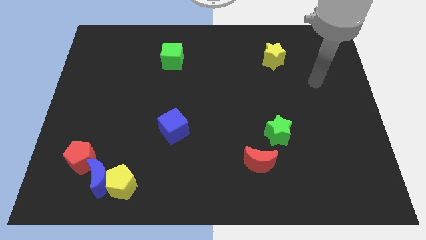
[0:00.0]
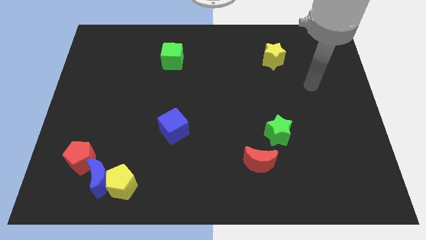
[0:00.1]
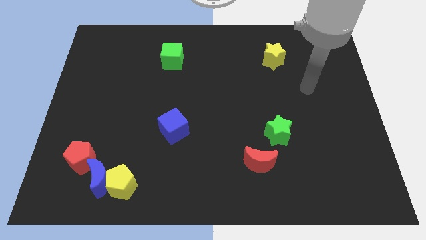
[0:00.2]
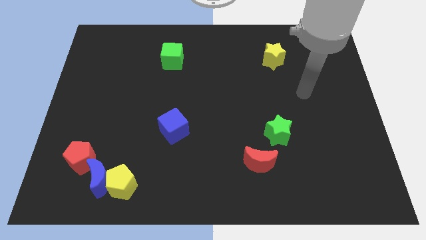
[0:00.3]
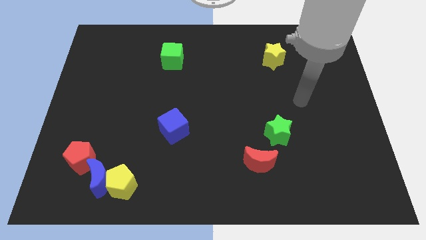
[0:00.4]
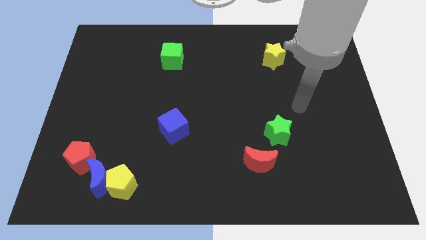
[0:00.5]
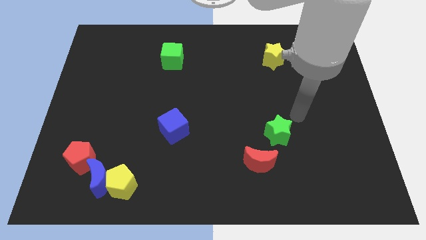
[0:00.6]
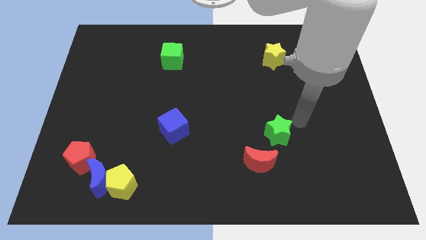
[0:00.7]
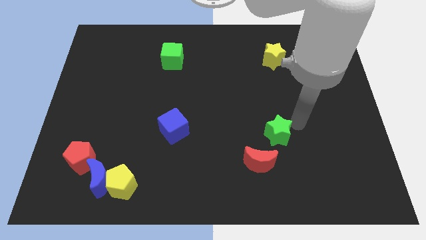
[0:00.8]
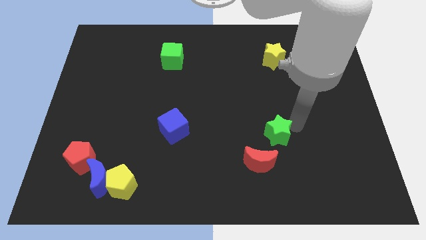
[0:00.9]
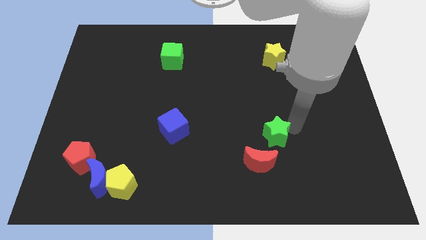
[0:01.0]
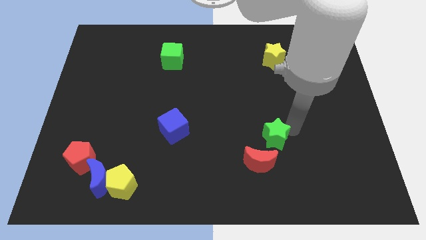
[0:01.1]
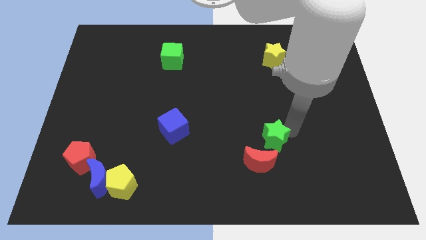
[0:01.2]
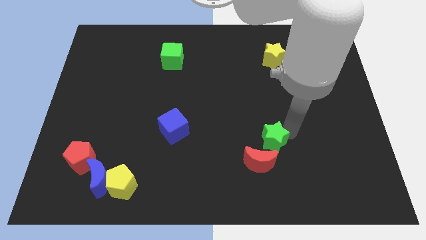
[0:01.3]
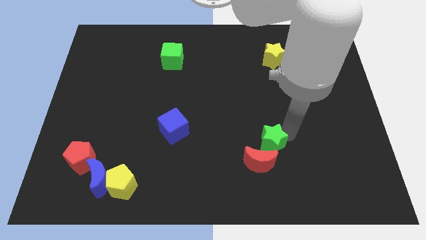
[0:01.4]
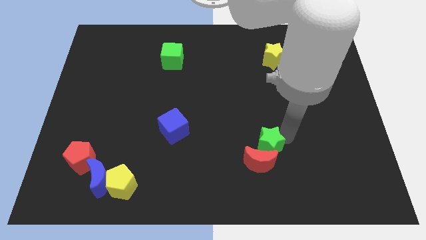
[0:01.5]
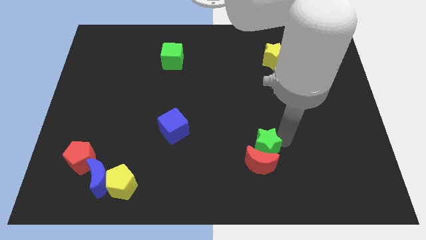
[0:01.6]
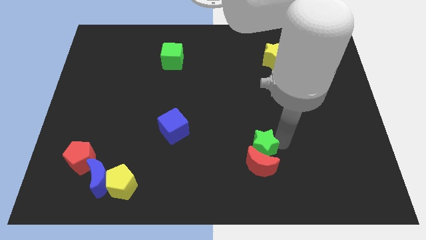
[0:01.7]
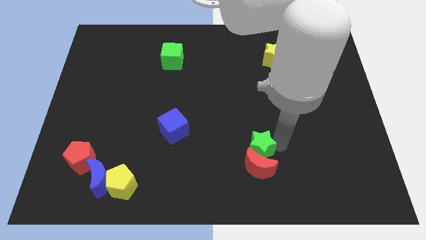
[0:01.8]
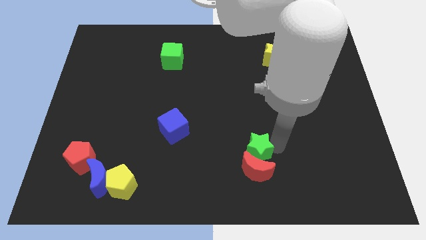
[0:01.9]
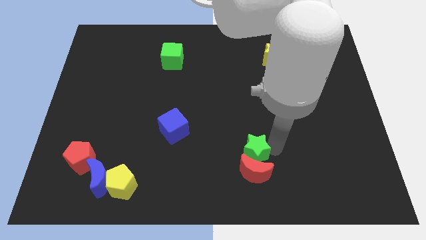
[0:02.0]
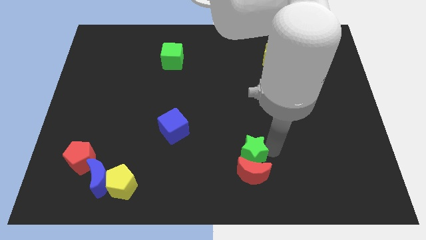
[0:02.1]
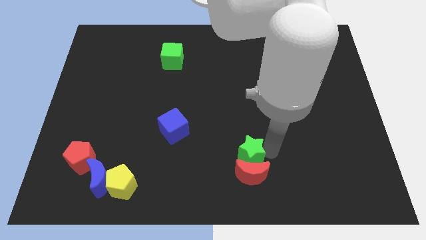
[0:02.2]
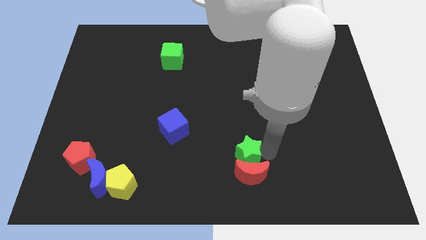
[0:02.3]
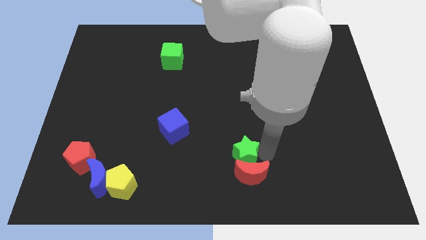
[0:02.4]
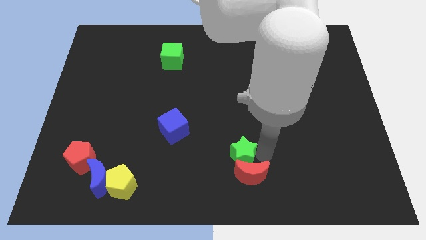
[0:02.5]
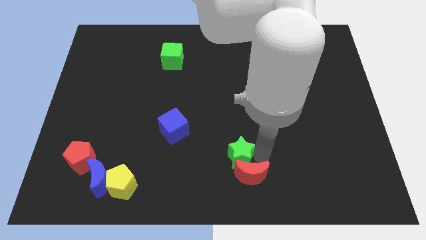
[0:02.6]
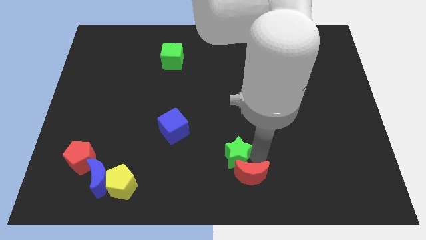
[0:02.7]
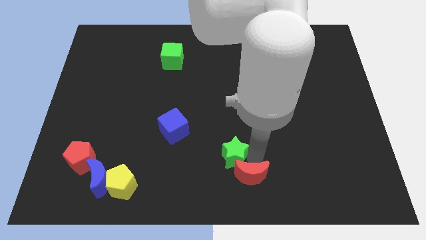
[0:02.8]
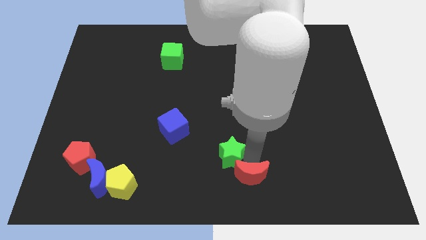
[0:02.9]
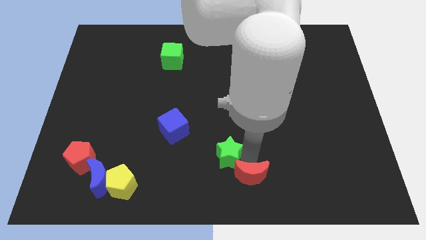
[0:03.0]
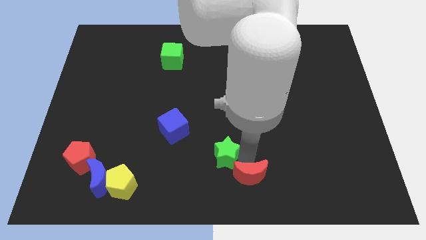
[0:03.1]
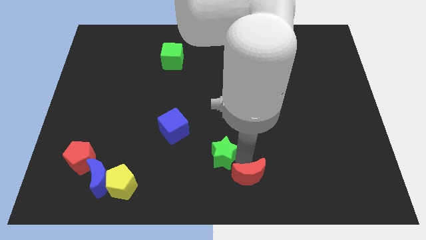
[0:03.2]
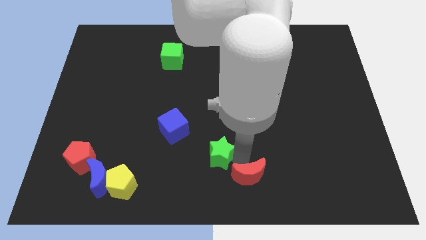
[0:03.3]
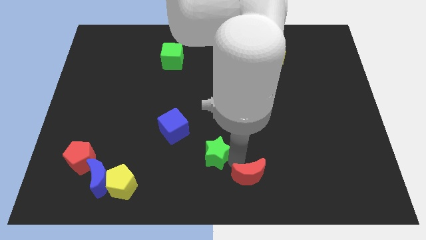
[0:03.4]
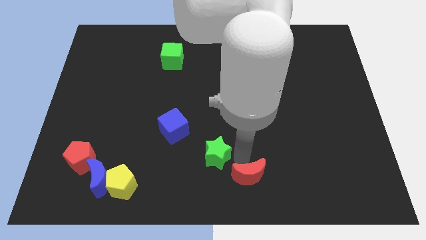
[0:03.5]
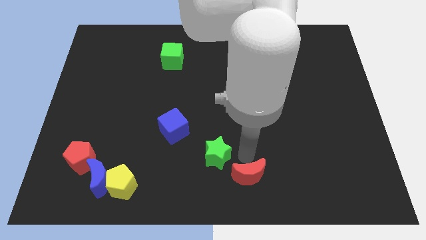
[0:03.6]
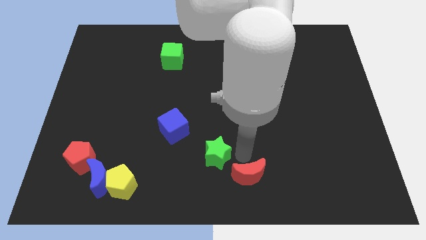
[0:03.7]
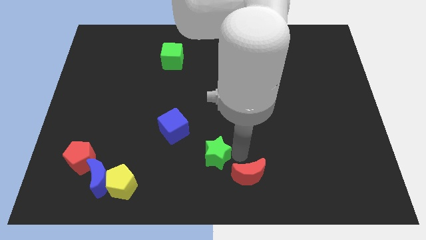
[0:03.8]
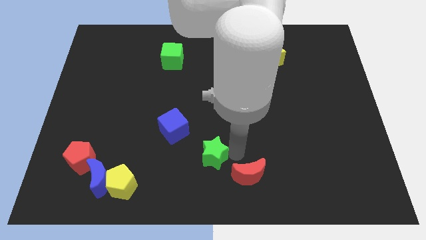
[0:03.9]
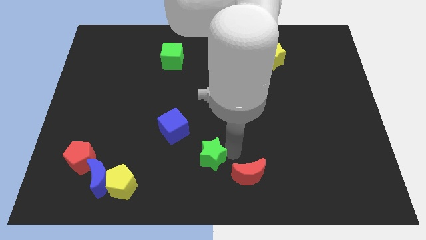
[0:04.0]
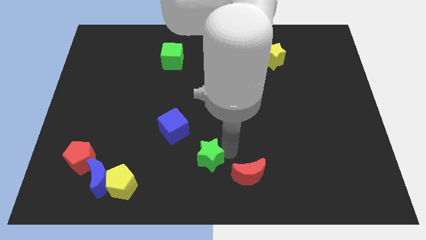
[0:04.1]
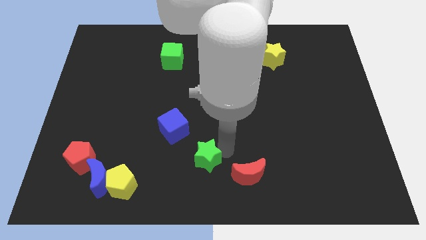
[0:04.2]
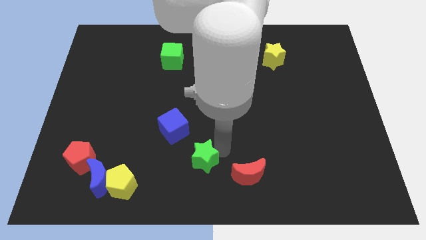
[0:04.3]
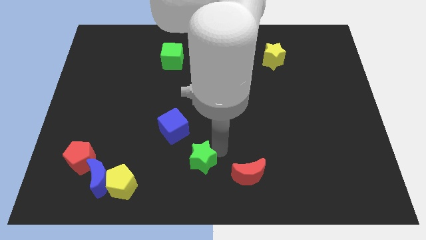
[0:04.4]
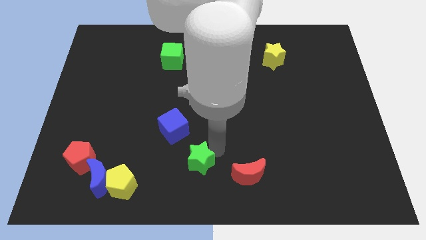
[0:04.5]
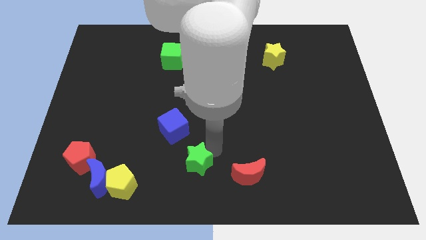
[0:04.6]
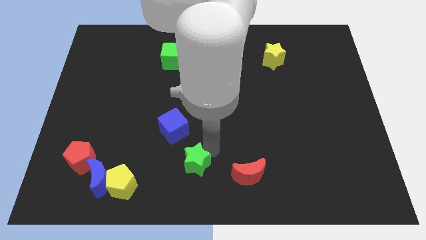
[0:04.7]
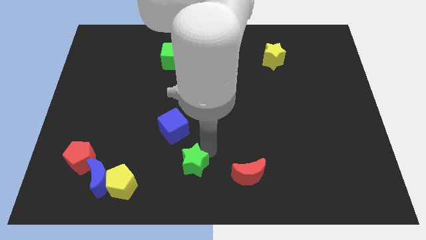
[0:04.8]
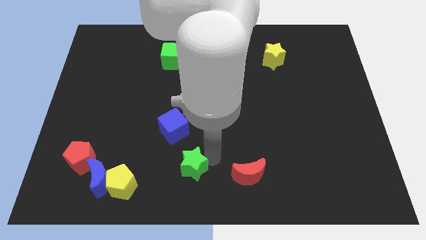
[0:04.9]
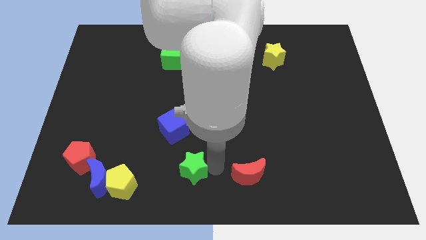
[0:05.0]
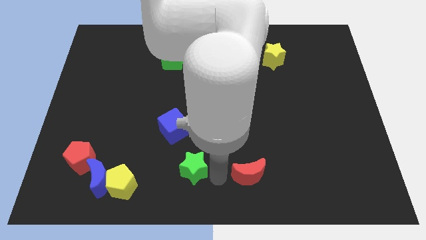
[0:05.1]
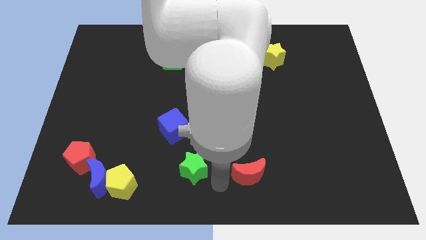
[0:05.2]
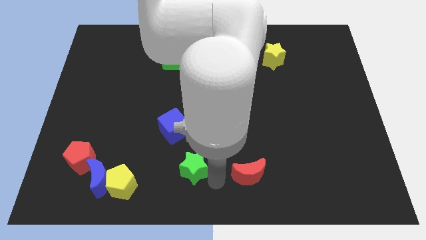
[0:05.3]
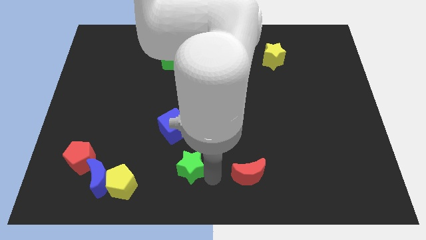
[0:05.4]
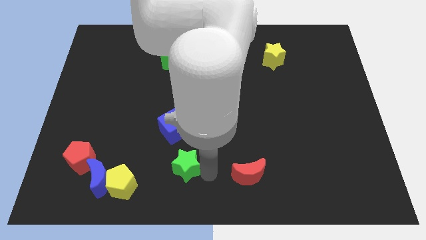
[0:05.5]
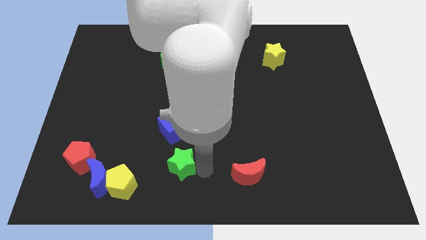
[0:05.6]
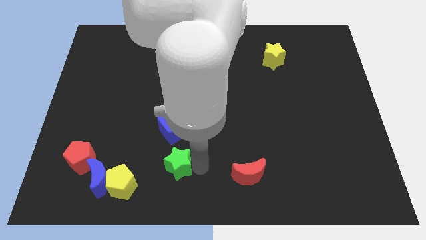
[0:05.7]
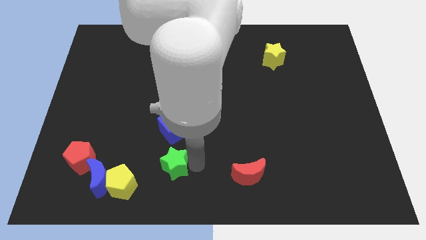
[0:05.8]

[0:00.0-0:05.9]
push the green star left

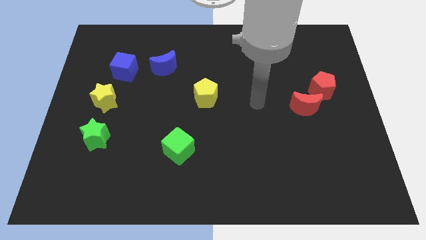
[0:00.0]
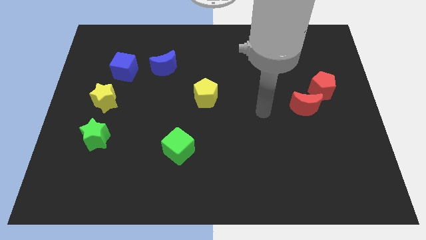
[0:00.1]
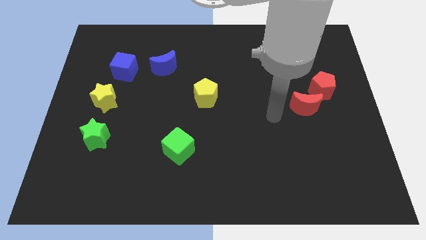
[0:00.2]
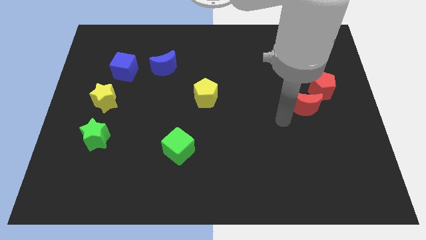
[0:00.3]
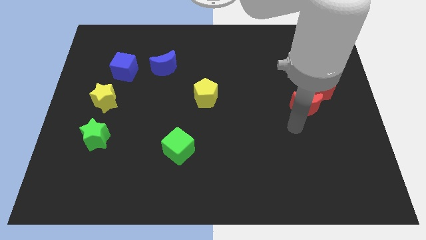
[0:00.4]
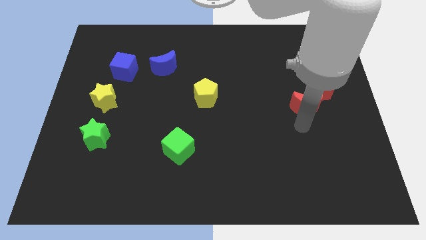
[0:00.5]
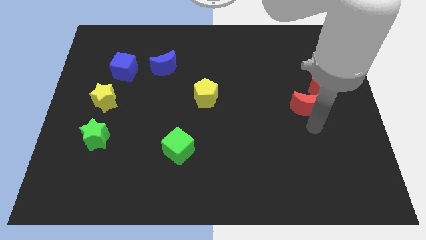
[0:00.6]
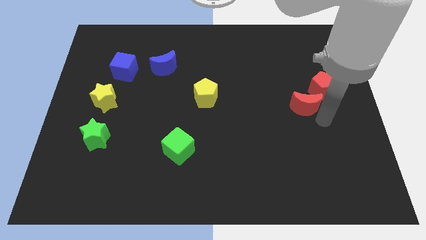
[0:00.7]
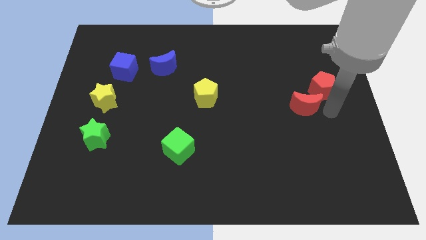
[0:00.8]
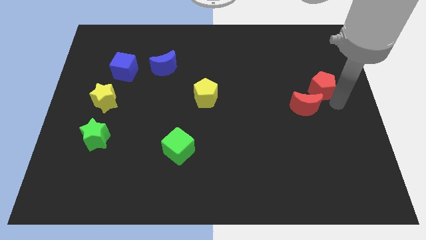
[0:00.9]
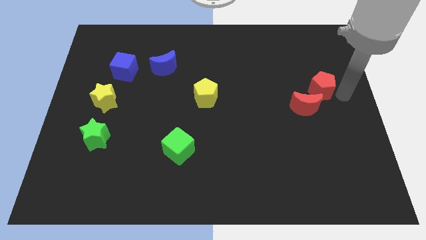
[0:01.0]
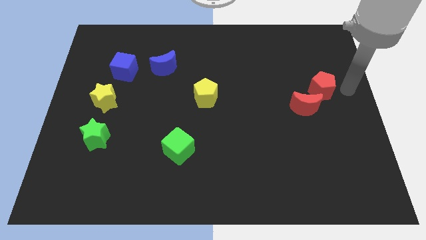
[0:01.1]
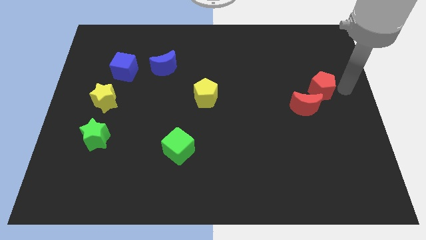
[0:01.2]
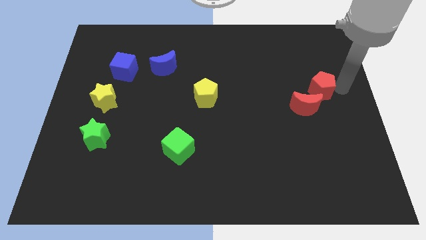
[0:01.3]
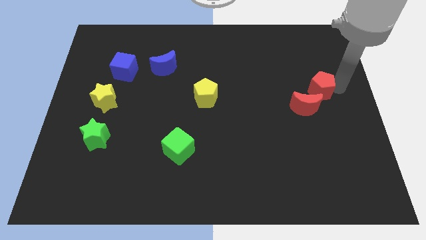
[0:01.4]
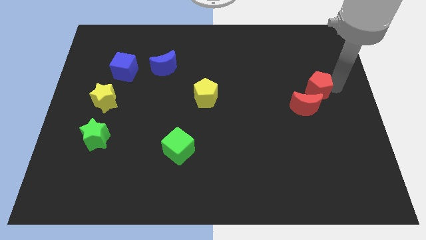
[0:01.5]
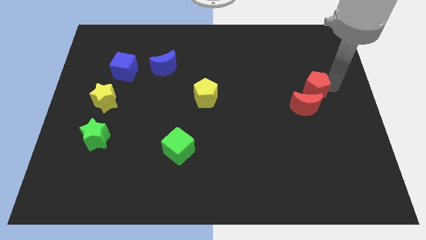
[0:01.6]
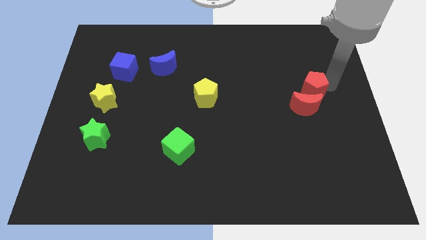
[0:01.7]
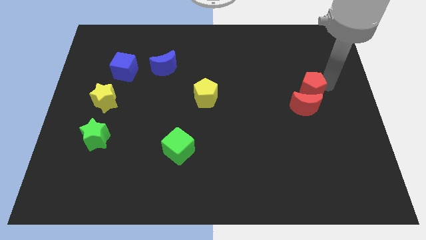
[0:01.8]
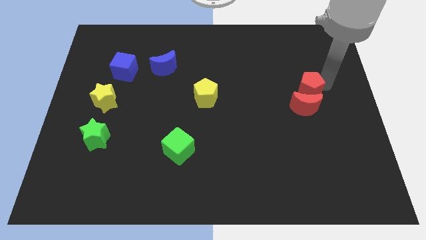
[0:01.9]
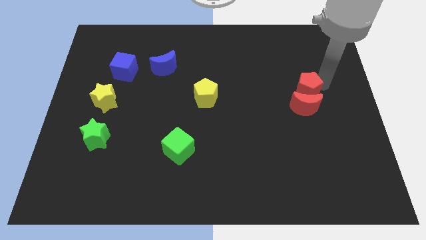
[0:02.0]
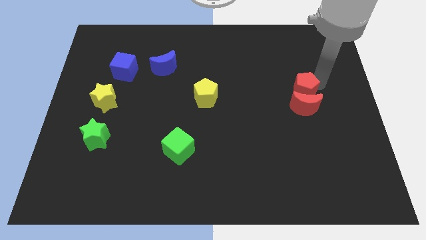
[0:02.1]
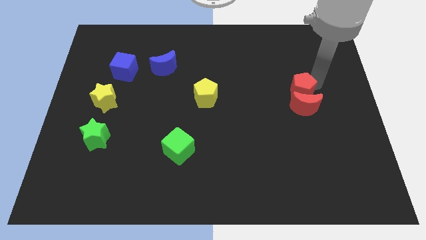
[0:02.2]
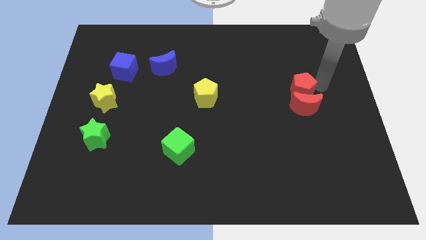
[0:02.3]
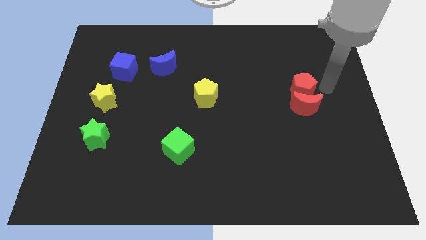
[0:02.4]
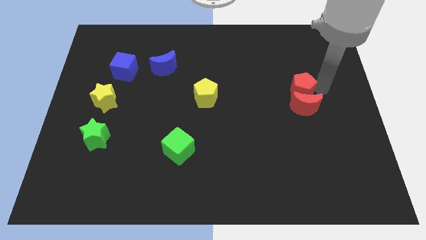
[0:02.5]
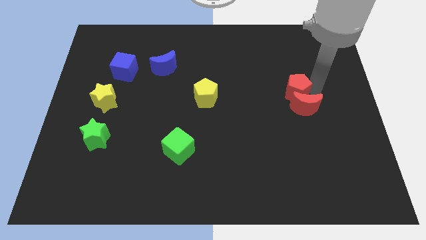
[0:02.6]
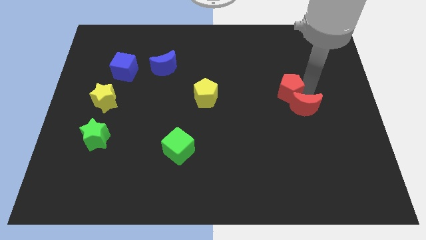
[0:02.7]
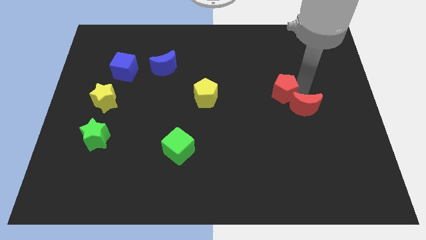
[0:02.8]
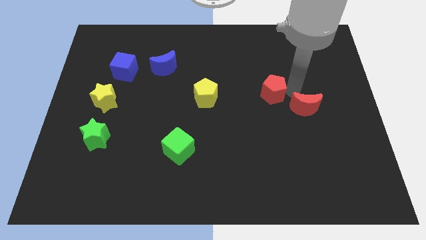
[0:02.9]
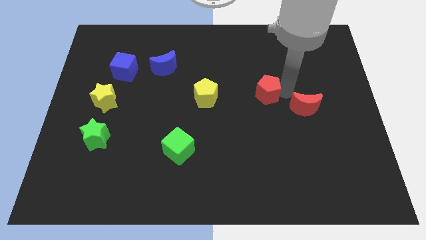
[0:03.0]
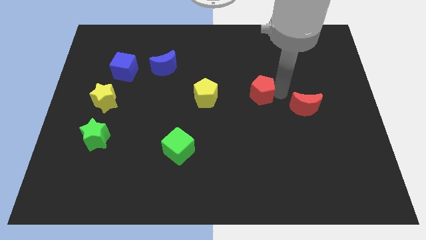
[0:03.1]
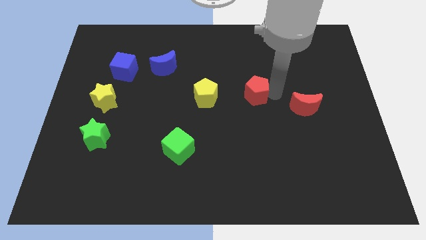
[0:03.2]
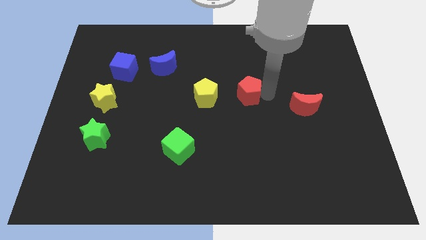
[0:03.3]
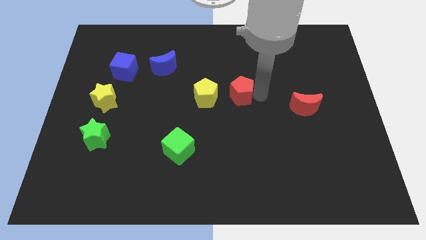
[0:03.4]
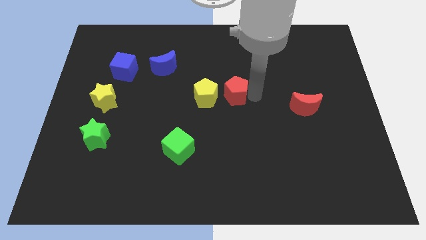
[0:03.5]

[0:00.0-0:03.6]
move the red pentagon to the left
